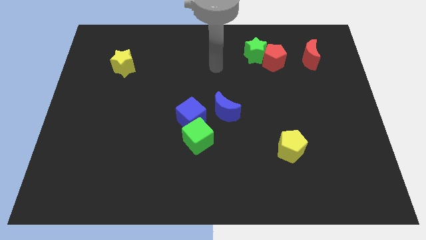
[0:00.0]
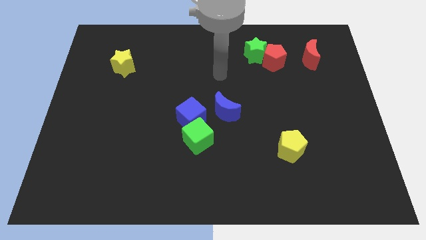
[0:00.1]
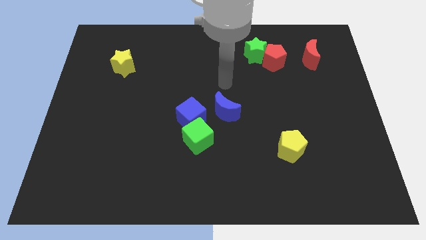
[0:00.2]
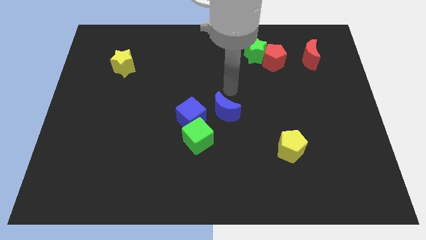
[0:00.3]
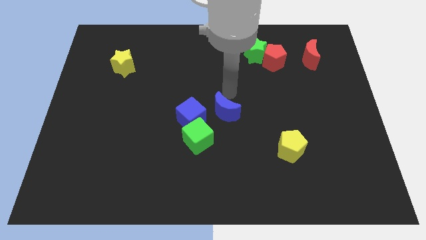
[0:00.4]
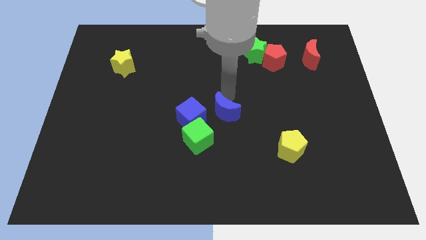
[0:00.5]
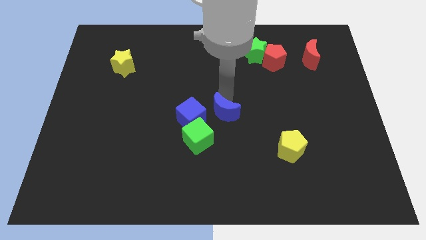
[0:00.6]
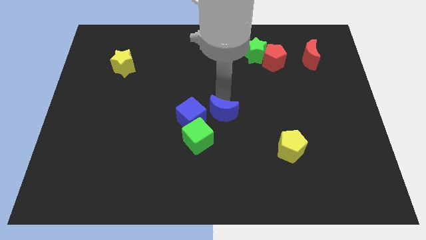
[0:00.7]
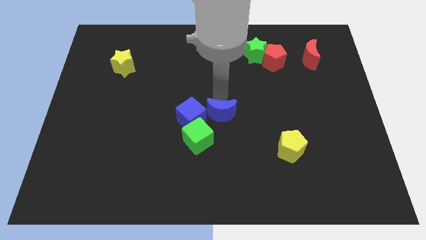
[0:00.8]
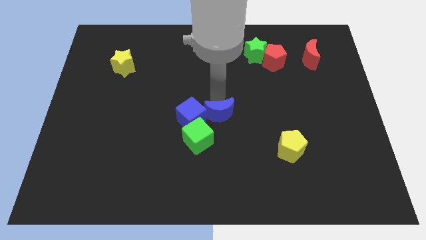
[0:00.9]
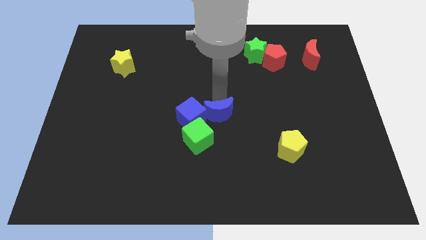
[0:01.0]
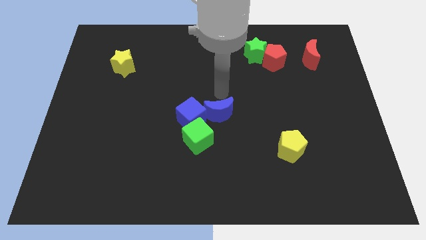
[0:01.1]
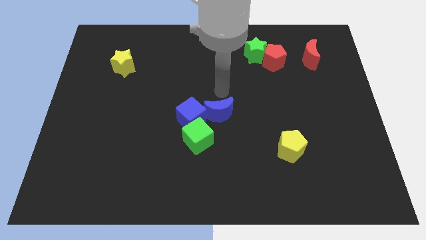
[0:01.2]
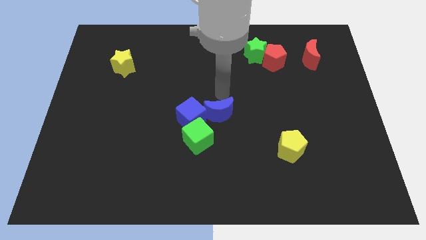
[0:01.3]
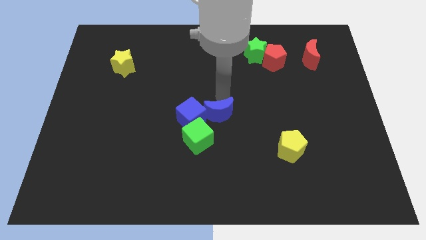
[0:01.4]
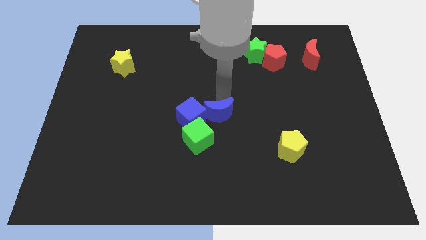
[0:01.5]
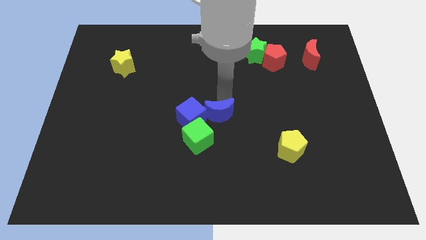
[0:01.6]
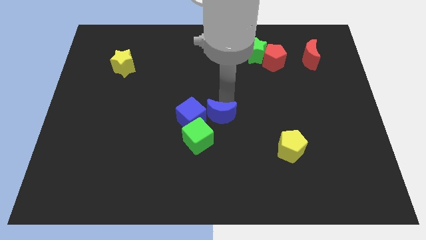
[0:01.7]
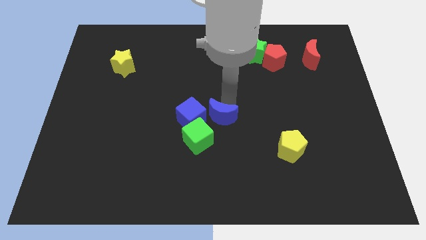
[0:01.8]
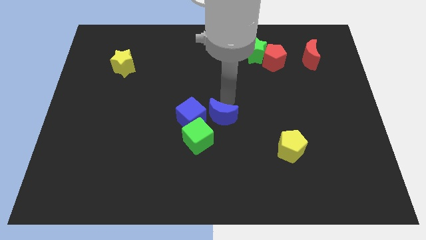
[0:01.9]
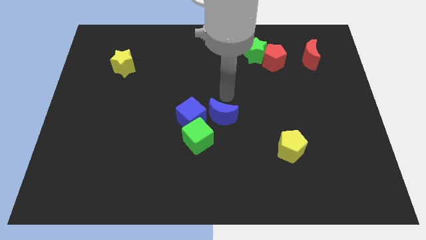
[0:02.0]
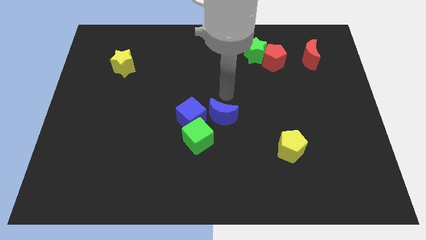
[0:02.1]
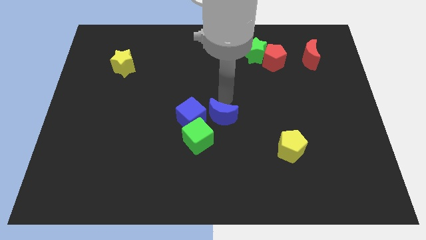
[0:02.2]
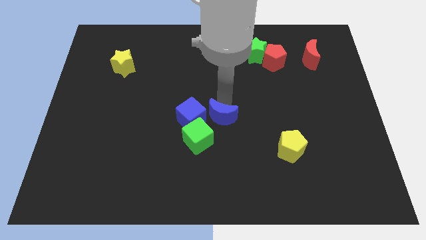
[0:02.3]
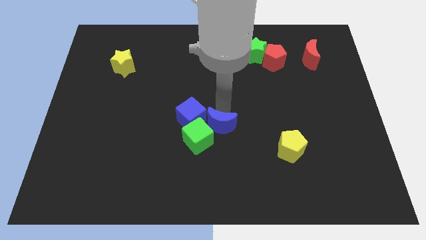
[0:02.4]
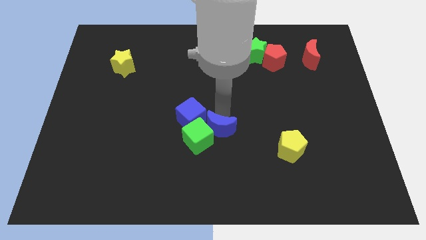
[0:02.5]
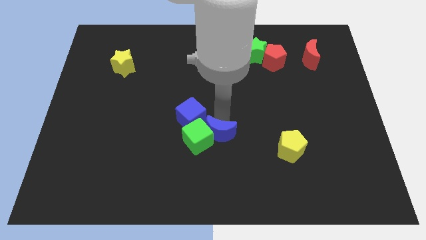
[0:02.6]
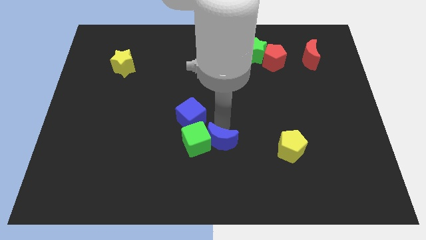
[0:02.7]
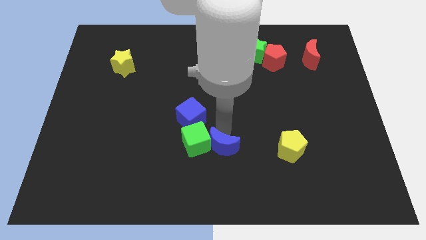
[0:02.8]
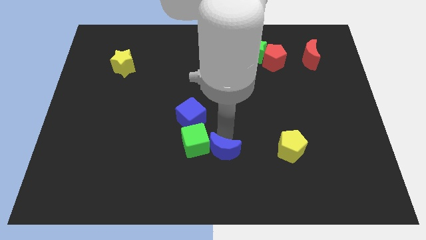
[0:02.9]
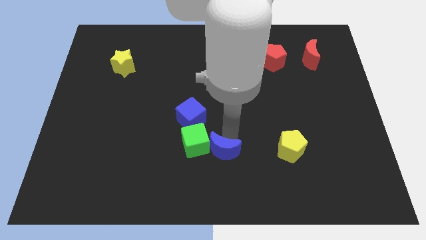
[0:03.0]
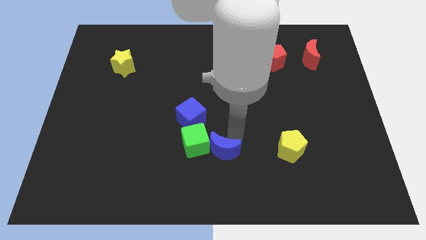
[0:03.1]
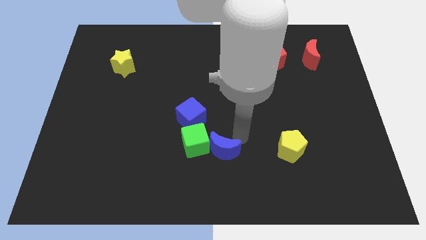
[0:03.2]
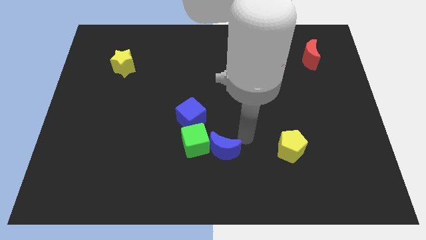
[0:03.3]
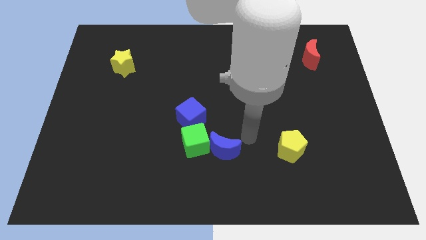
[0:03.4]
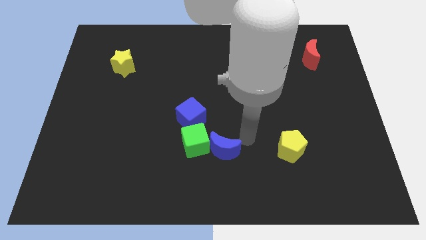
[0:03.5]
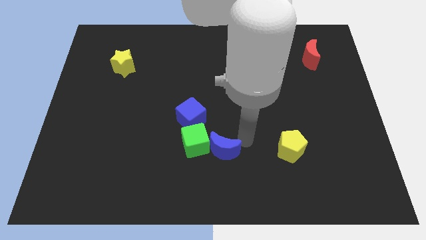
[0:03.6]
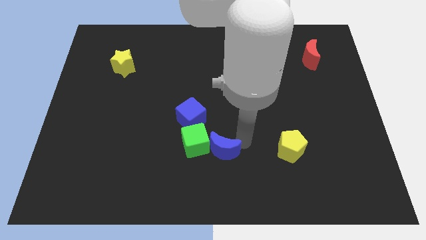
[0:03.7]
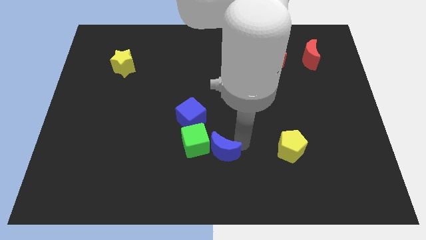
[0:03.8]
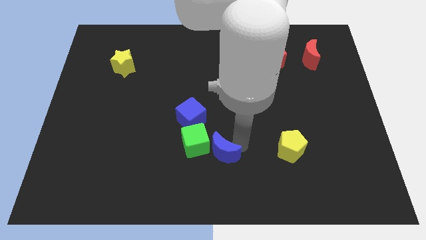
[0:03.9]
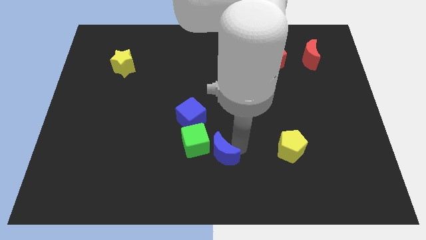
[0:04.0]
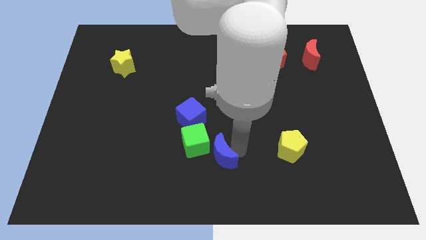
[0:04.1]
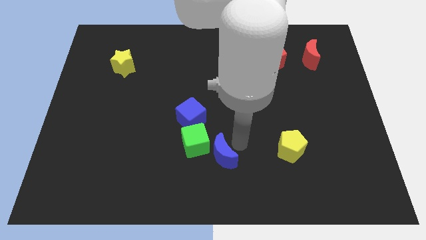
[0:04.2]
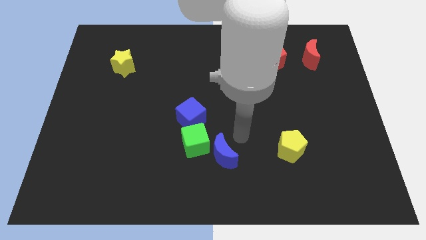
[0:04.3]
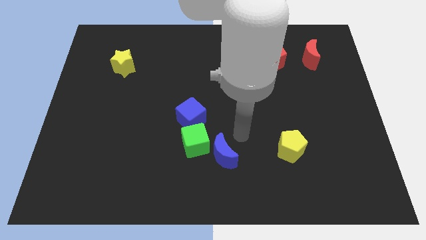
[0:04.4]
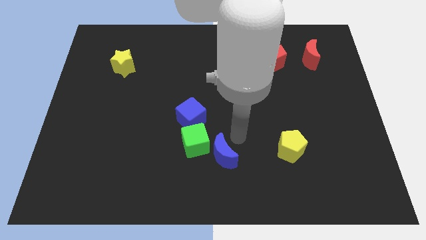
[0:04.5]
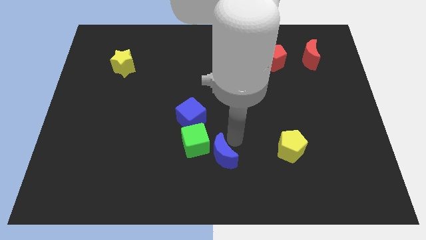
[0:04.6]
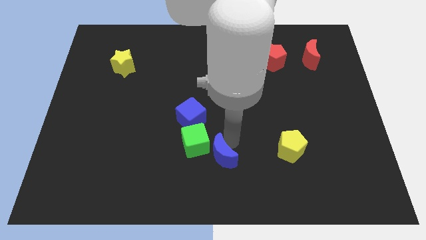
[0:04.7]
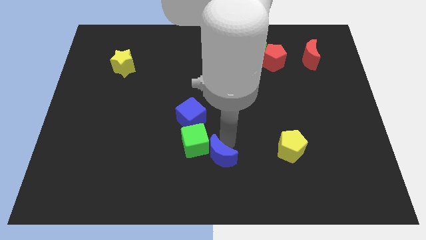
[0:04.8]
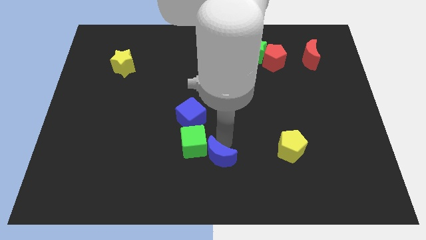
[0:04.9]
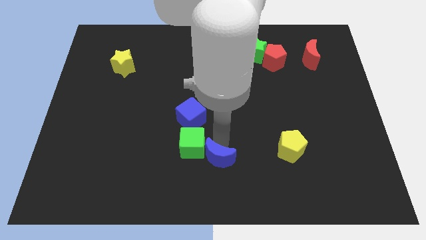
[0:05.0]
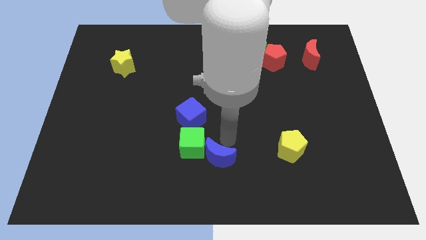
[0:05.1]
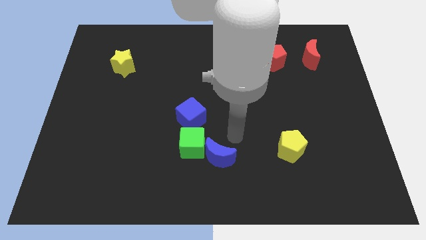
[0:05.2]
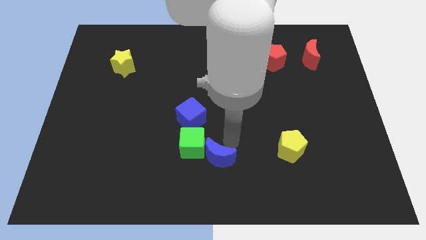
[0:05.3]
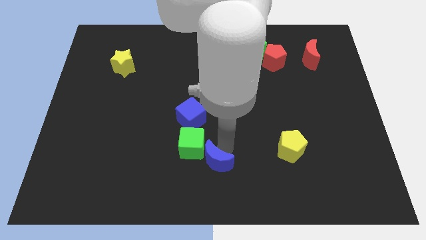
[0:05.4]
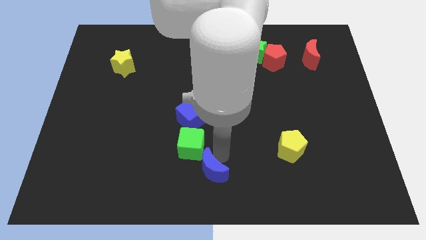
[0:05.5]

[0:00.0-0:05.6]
push the blue moon to the bottom side of the green cube

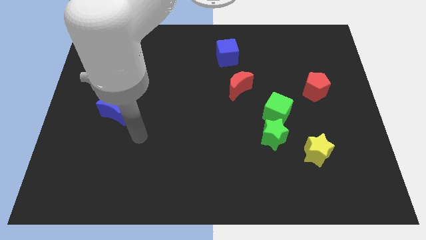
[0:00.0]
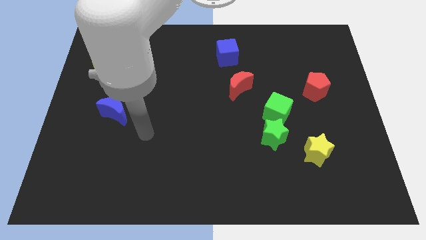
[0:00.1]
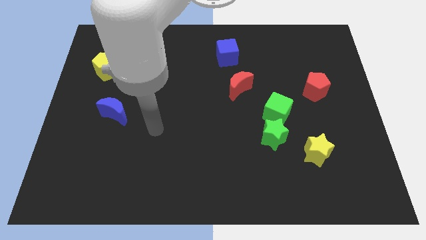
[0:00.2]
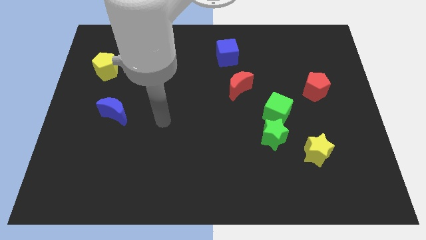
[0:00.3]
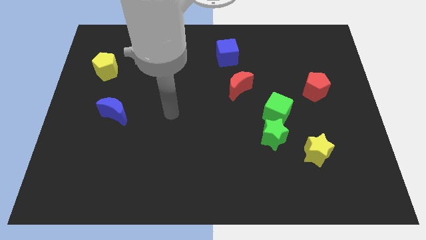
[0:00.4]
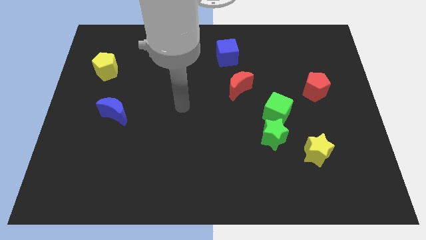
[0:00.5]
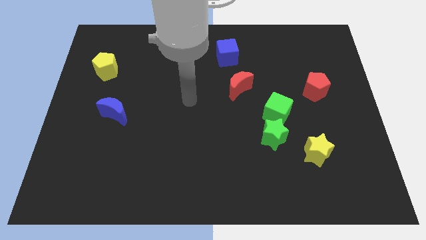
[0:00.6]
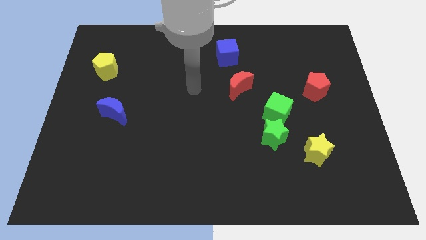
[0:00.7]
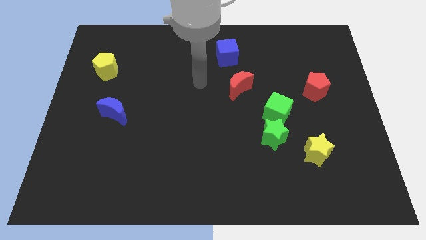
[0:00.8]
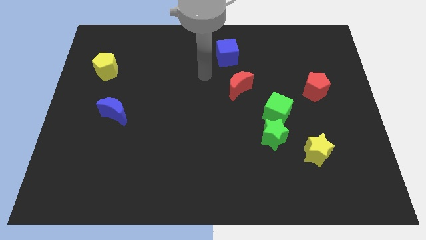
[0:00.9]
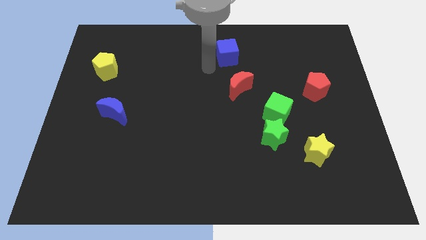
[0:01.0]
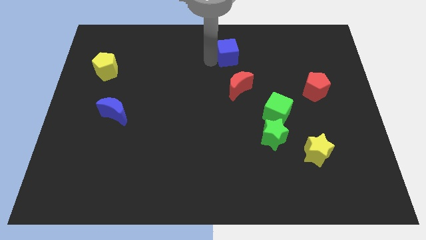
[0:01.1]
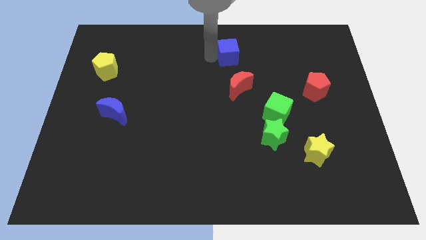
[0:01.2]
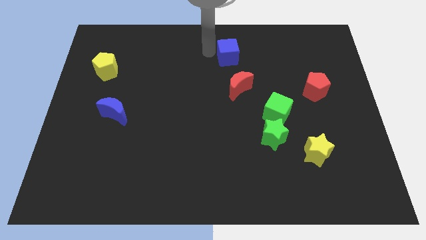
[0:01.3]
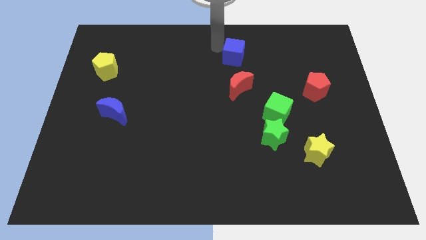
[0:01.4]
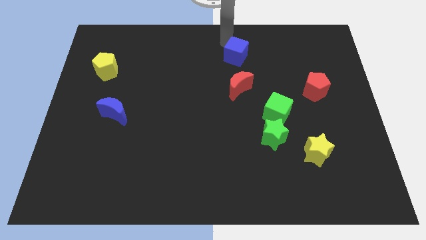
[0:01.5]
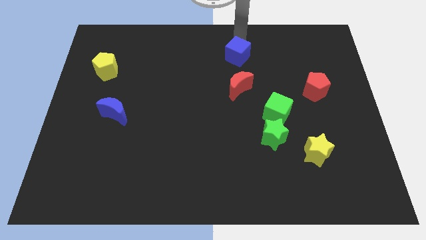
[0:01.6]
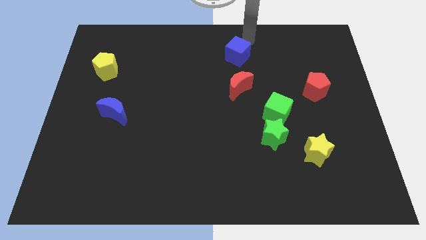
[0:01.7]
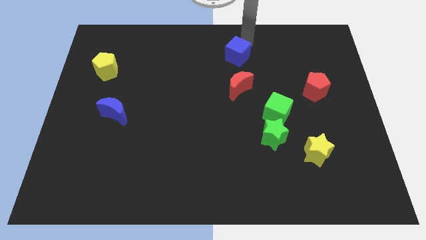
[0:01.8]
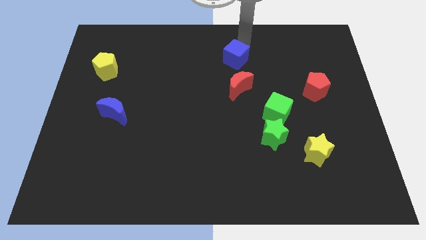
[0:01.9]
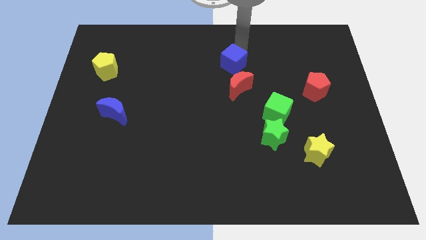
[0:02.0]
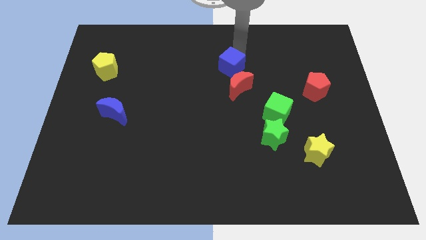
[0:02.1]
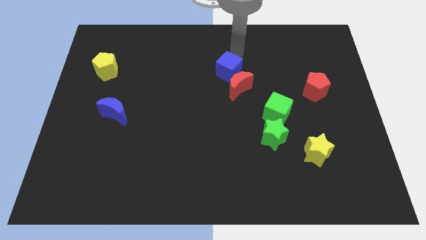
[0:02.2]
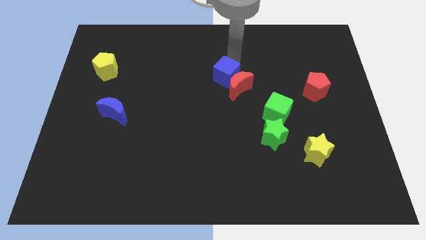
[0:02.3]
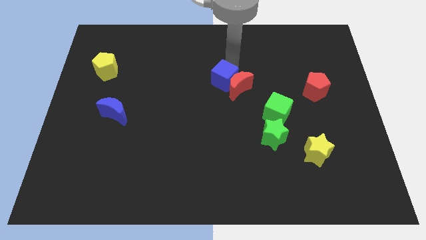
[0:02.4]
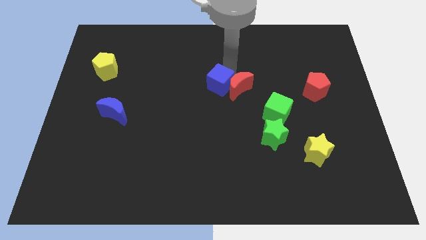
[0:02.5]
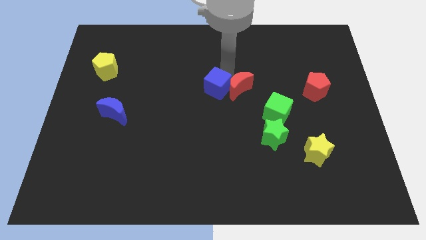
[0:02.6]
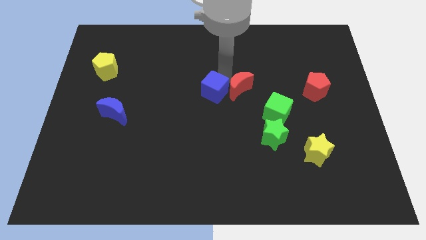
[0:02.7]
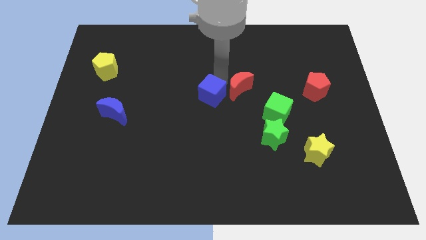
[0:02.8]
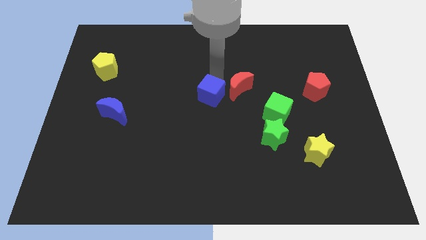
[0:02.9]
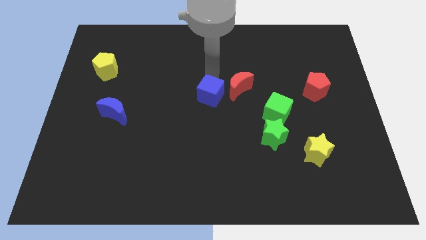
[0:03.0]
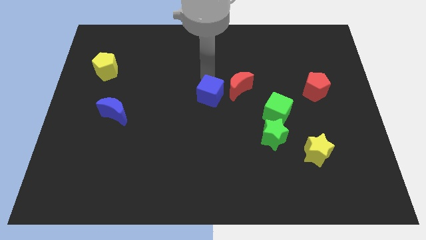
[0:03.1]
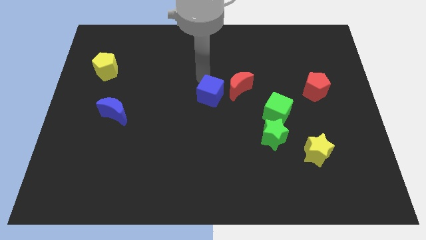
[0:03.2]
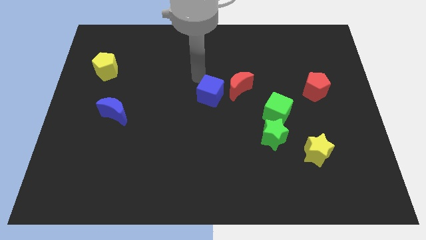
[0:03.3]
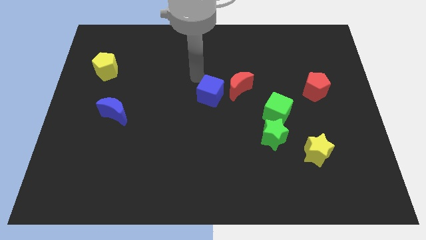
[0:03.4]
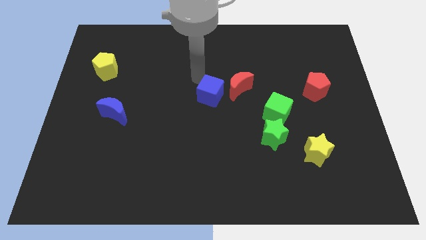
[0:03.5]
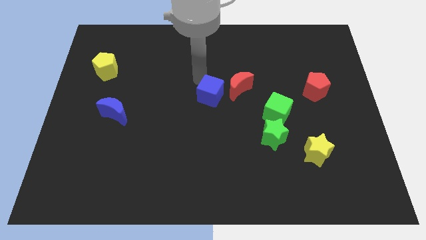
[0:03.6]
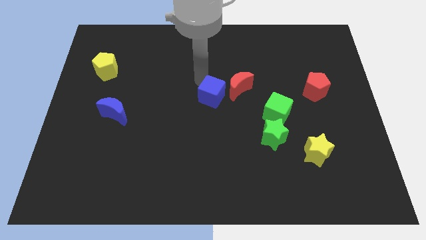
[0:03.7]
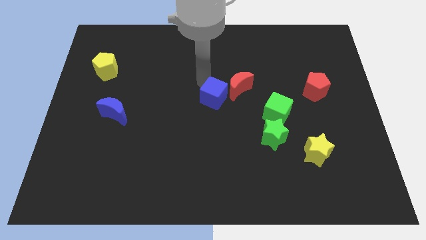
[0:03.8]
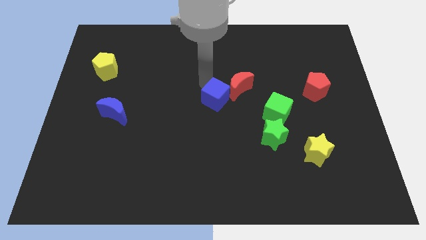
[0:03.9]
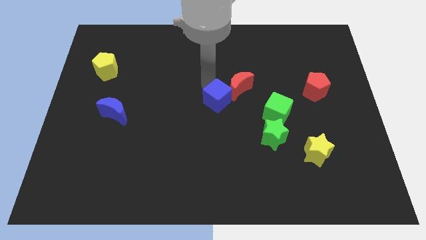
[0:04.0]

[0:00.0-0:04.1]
put the blue cube left of the green cube
